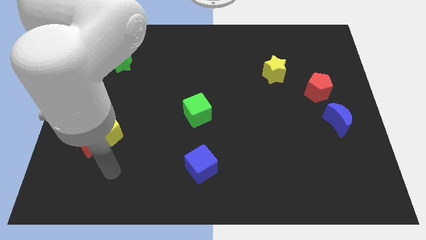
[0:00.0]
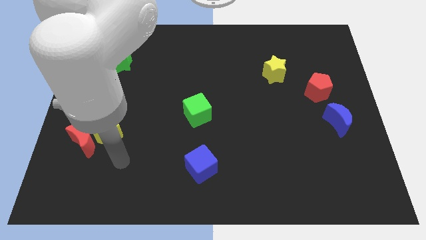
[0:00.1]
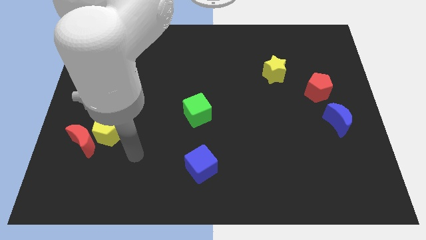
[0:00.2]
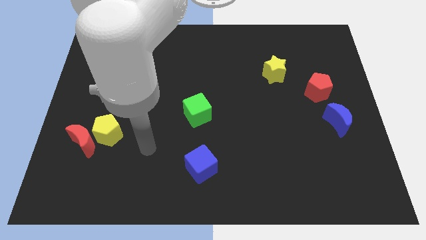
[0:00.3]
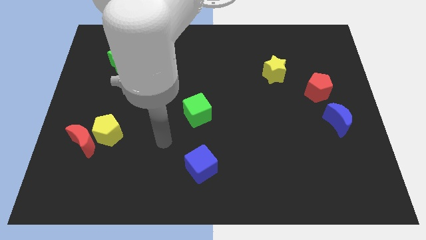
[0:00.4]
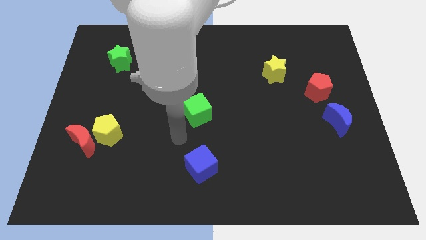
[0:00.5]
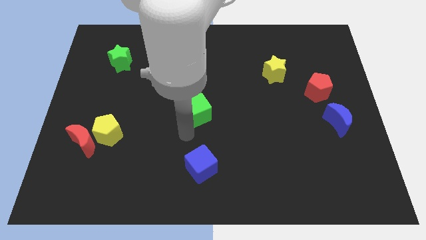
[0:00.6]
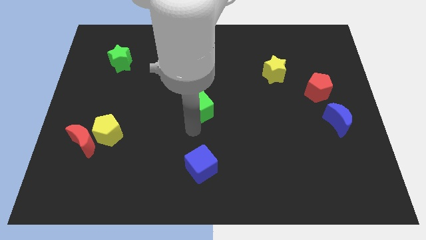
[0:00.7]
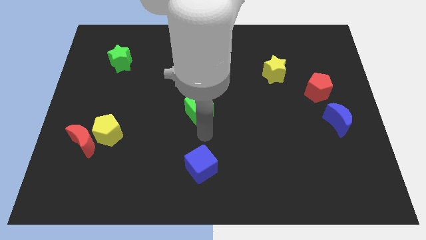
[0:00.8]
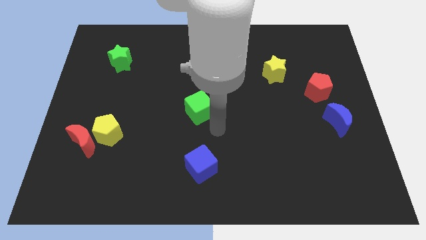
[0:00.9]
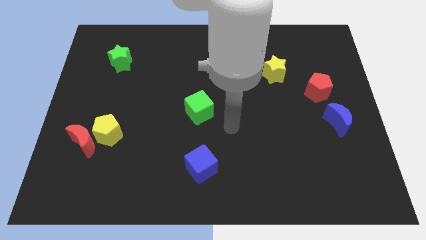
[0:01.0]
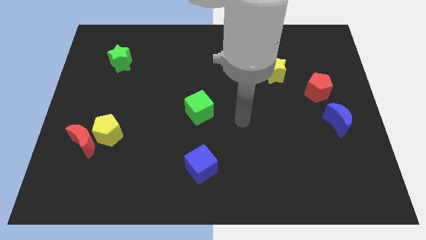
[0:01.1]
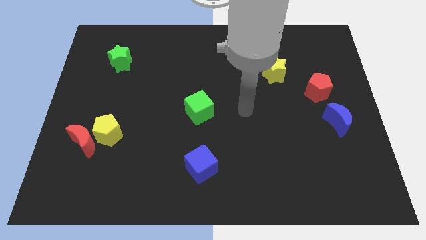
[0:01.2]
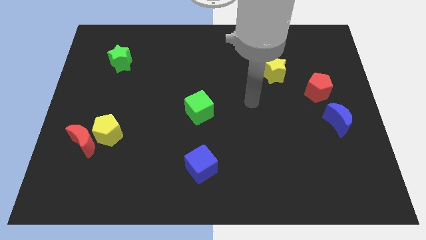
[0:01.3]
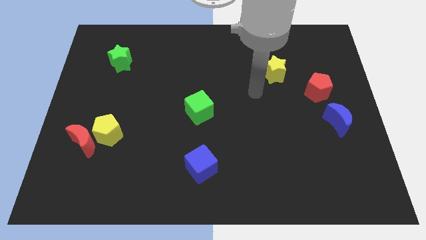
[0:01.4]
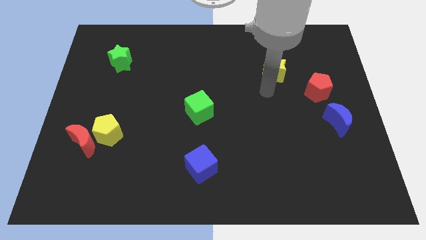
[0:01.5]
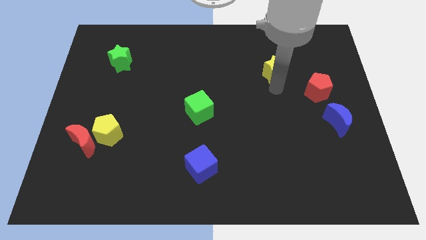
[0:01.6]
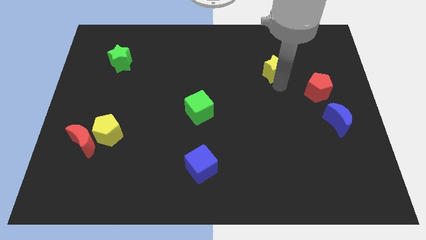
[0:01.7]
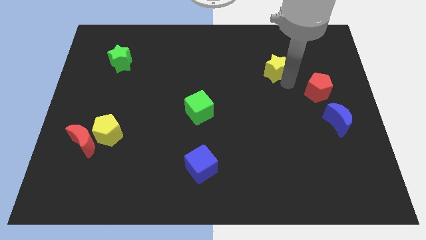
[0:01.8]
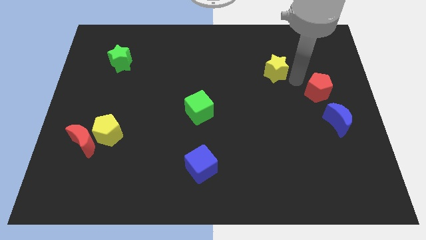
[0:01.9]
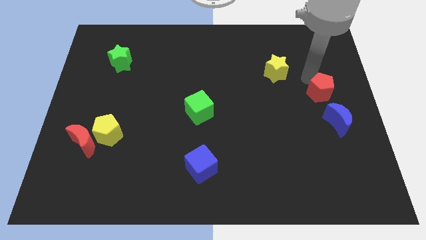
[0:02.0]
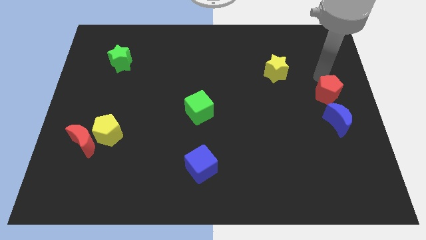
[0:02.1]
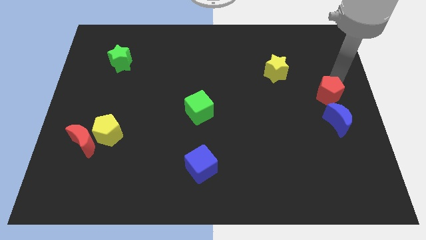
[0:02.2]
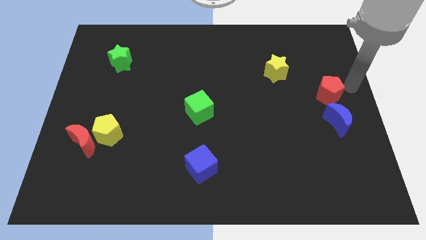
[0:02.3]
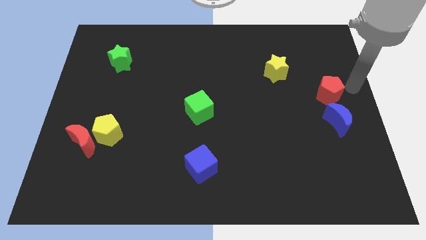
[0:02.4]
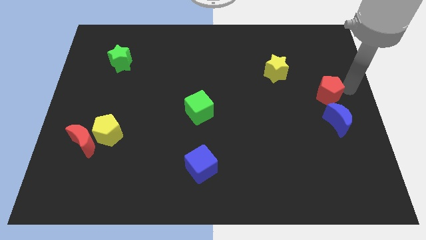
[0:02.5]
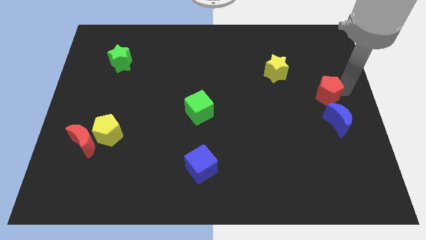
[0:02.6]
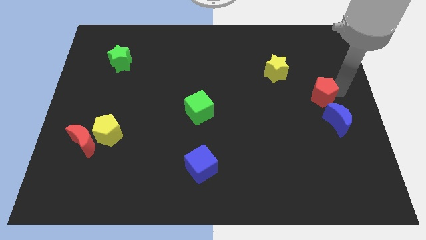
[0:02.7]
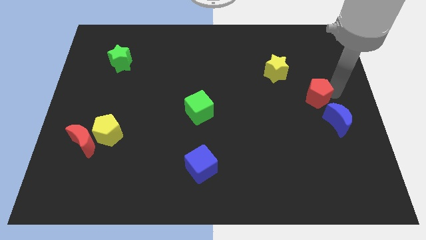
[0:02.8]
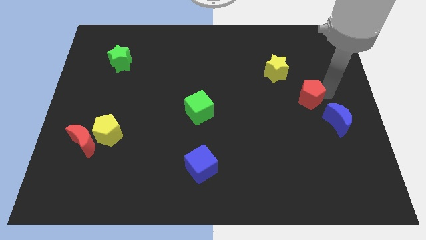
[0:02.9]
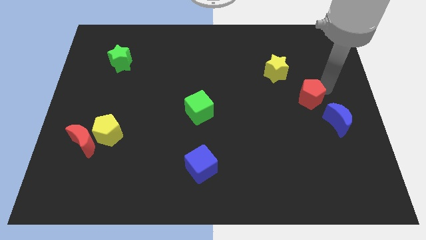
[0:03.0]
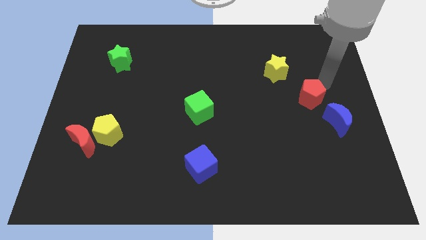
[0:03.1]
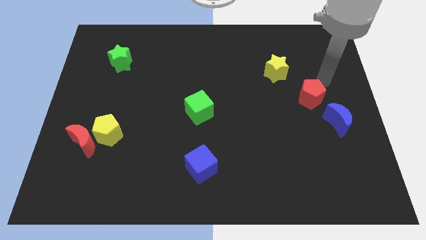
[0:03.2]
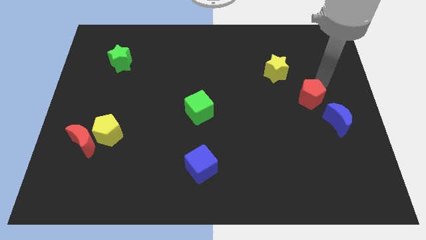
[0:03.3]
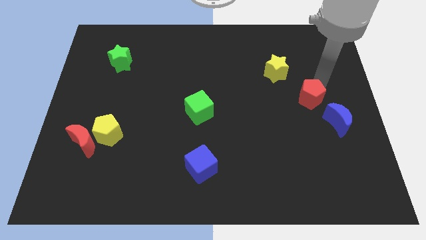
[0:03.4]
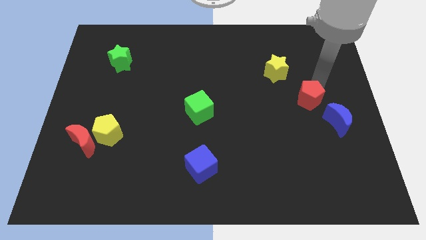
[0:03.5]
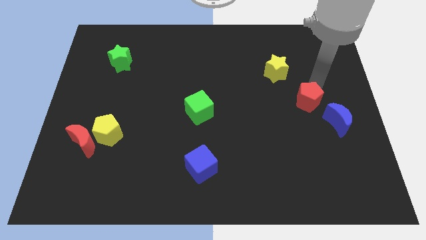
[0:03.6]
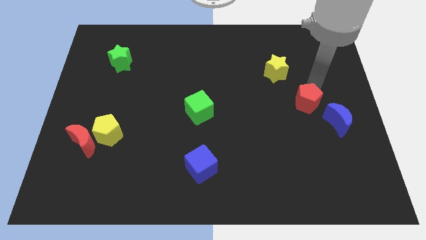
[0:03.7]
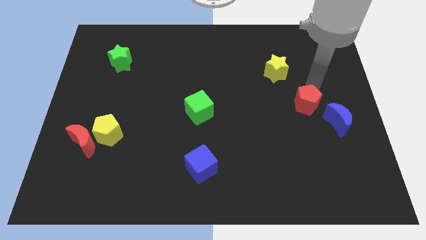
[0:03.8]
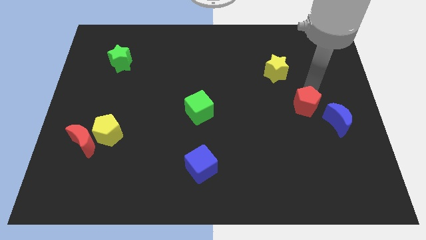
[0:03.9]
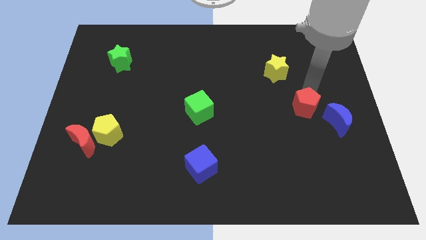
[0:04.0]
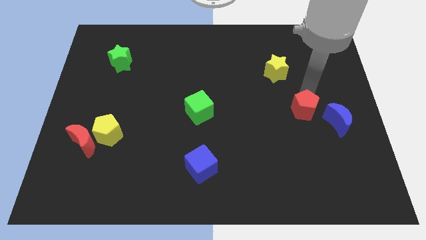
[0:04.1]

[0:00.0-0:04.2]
slide the red pentagon a little down and then to the left

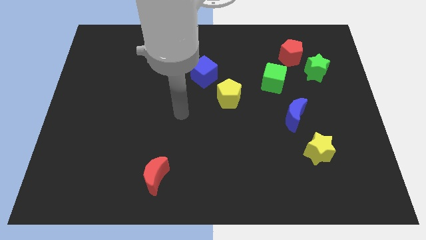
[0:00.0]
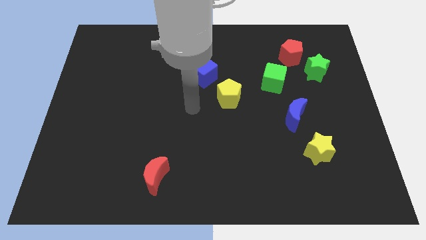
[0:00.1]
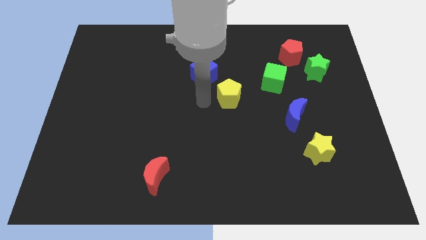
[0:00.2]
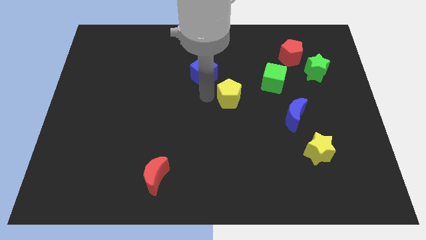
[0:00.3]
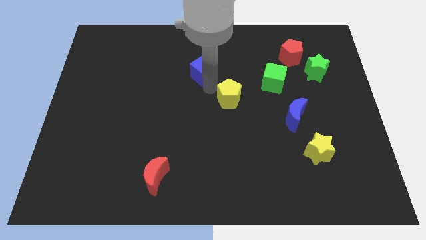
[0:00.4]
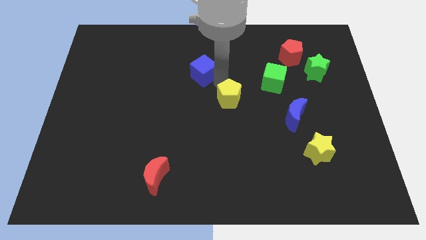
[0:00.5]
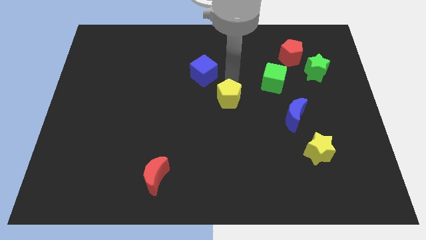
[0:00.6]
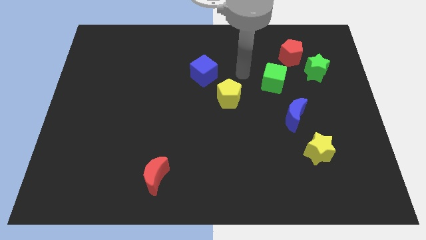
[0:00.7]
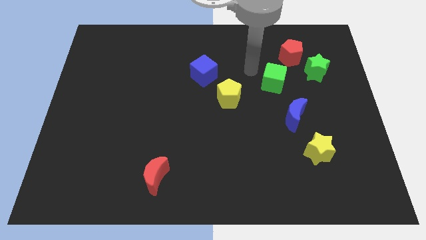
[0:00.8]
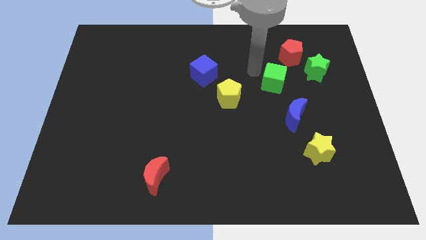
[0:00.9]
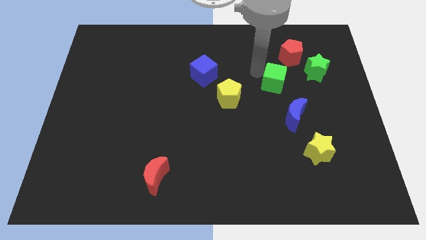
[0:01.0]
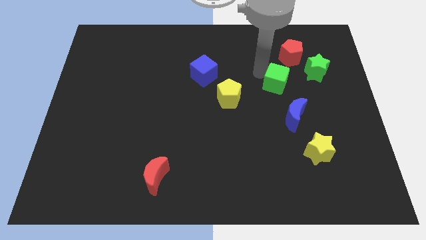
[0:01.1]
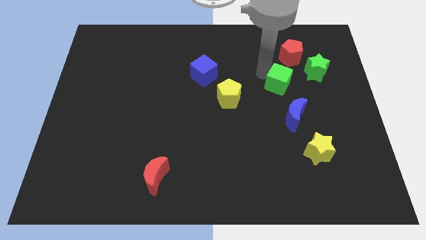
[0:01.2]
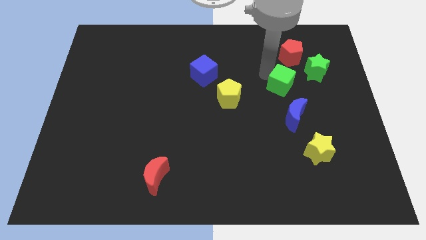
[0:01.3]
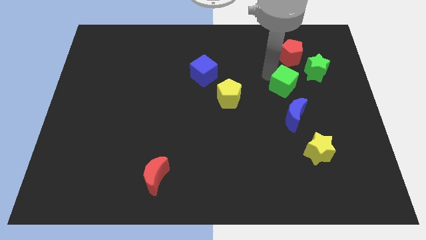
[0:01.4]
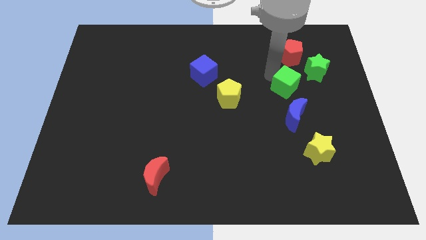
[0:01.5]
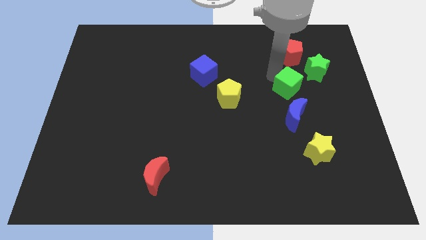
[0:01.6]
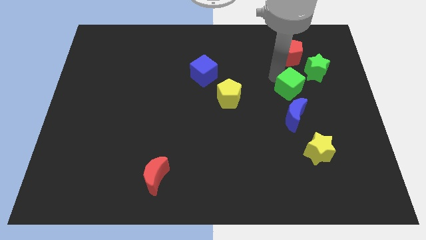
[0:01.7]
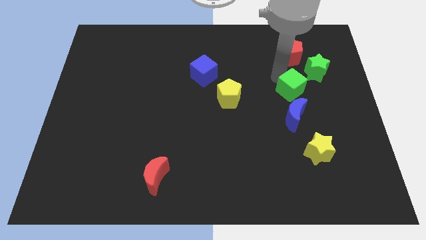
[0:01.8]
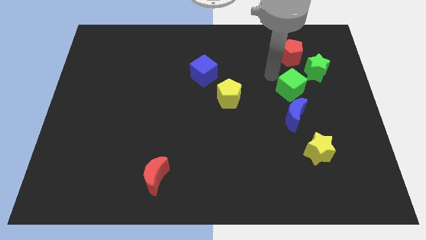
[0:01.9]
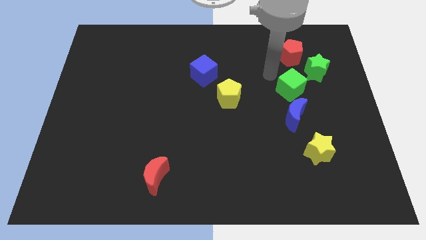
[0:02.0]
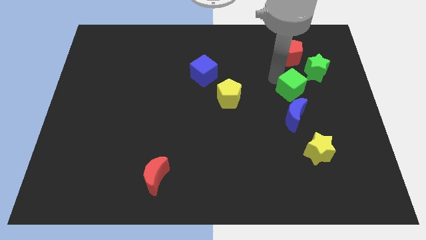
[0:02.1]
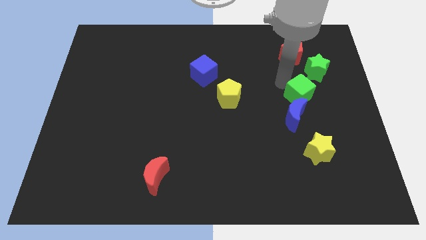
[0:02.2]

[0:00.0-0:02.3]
slightly push the green cube down and to the right

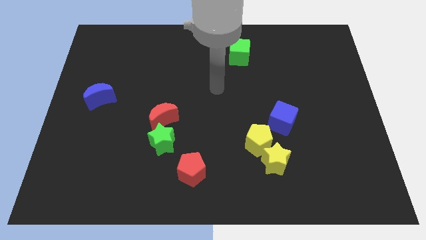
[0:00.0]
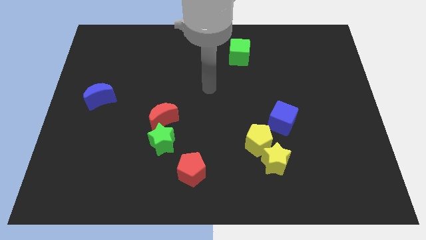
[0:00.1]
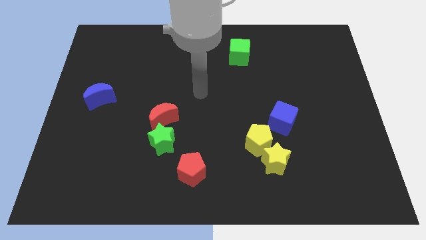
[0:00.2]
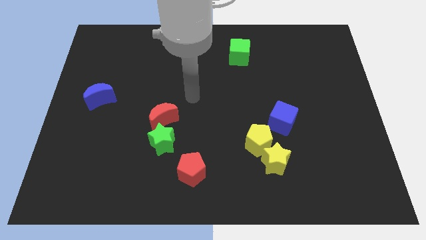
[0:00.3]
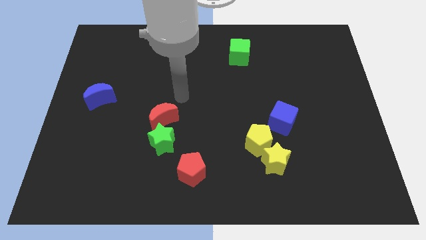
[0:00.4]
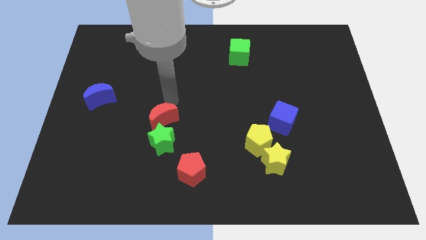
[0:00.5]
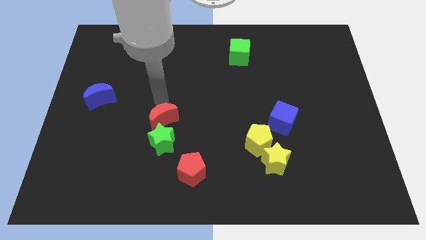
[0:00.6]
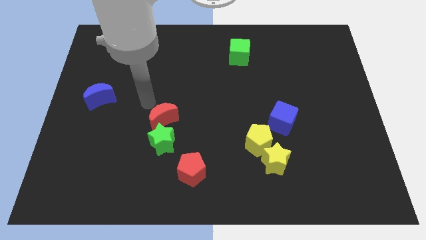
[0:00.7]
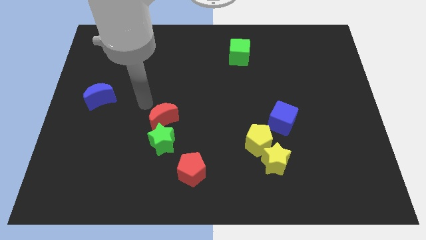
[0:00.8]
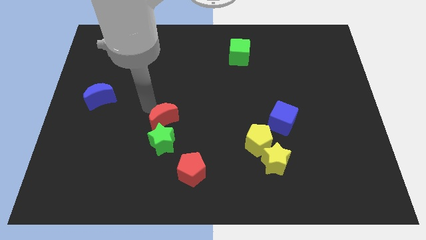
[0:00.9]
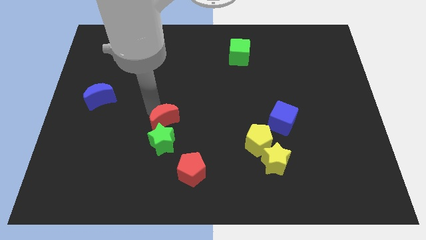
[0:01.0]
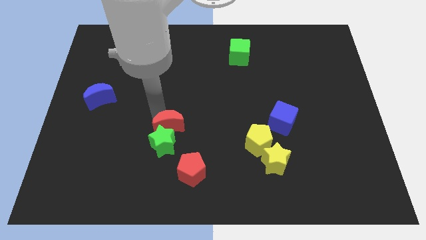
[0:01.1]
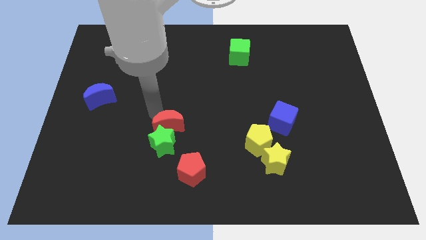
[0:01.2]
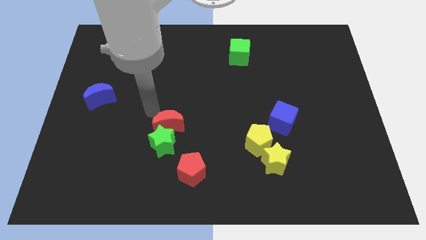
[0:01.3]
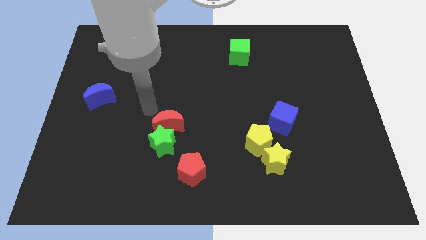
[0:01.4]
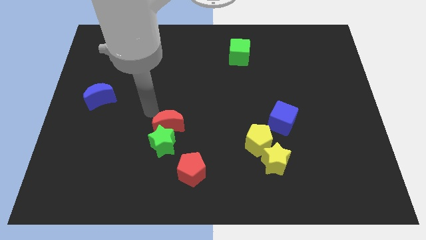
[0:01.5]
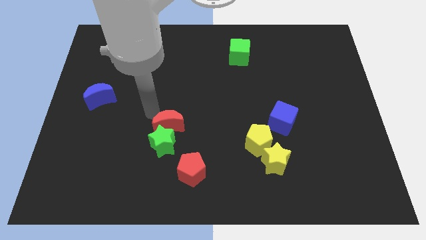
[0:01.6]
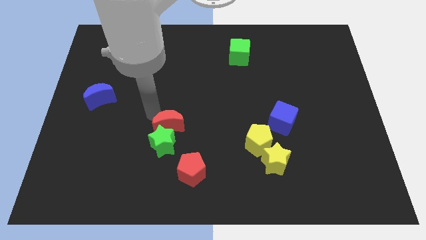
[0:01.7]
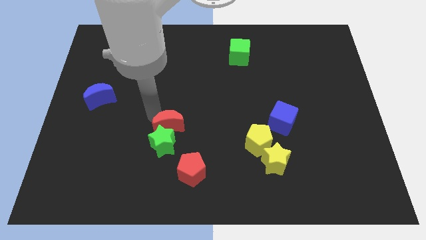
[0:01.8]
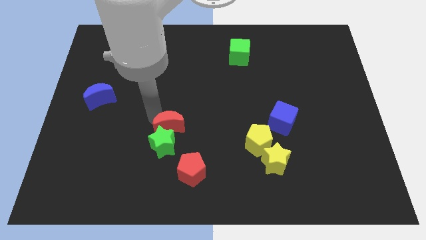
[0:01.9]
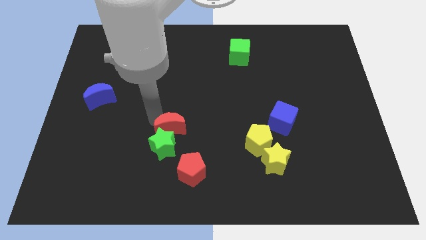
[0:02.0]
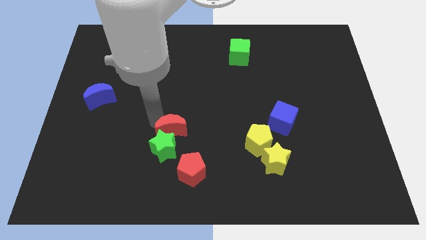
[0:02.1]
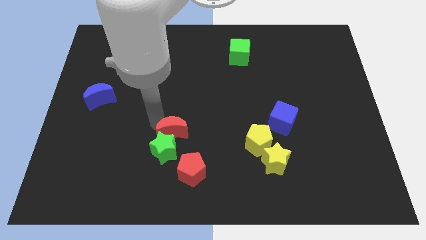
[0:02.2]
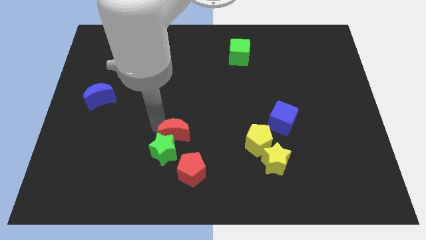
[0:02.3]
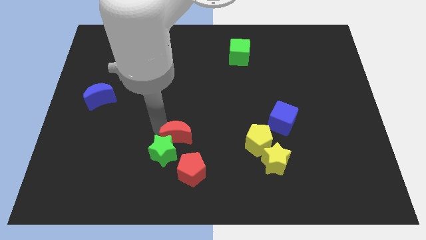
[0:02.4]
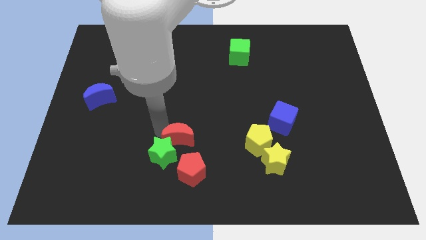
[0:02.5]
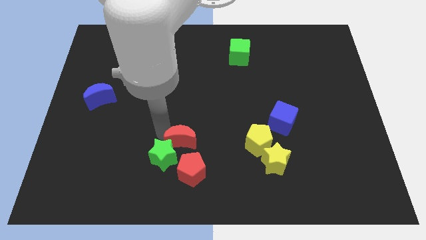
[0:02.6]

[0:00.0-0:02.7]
move the red moon diagonally down and to the right a little bit
